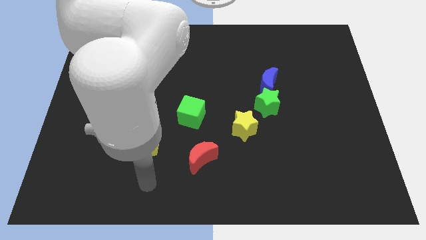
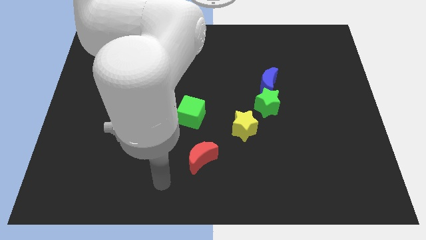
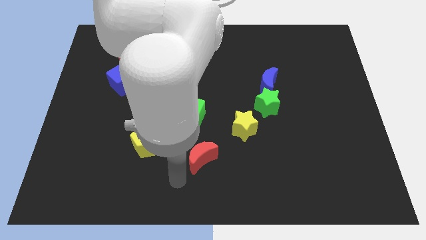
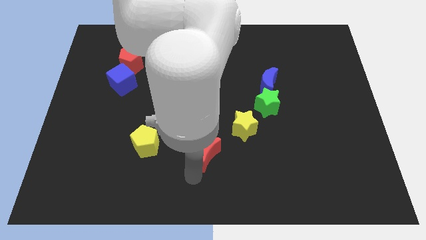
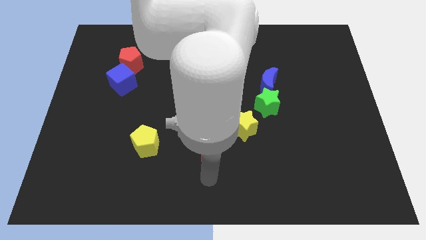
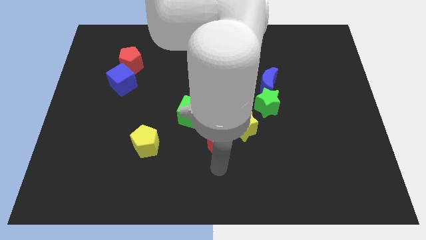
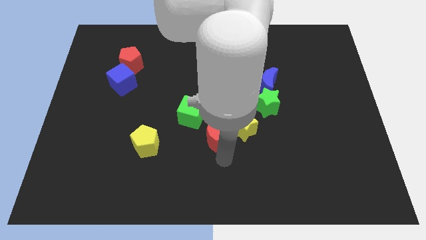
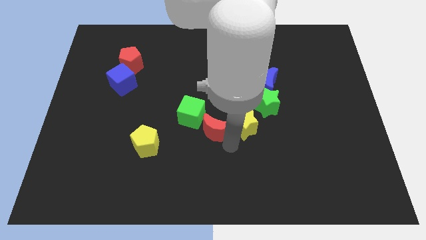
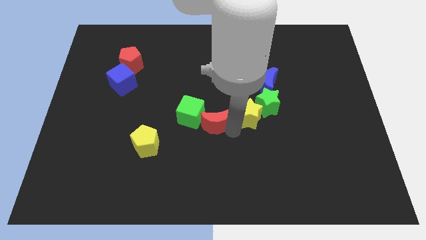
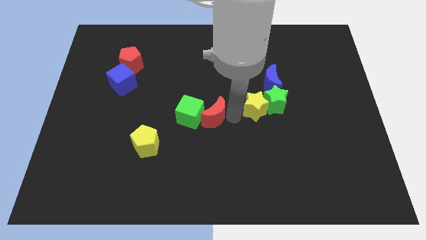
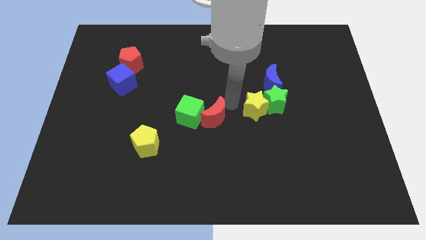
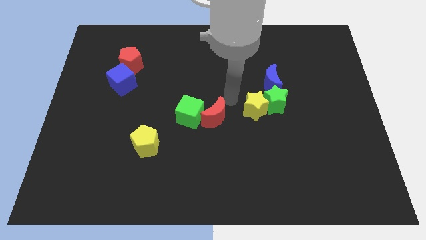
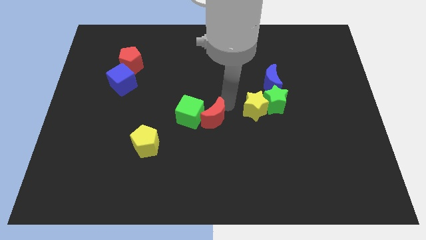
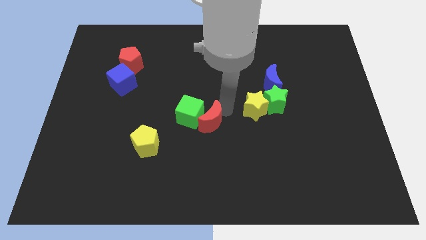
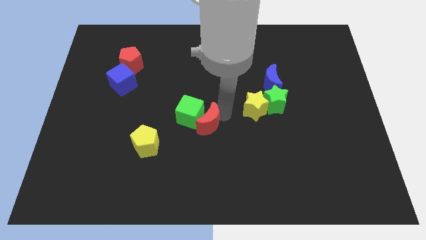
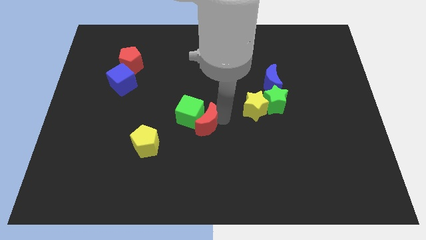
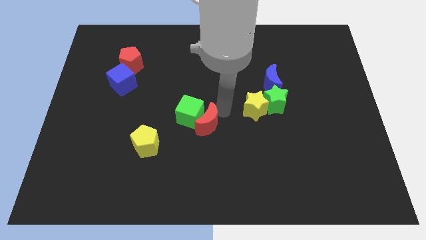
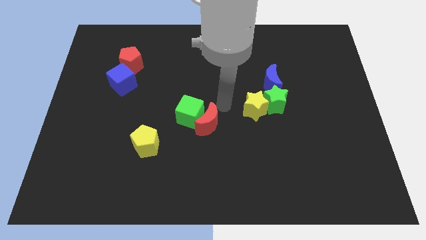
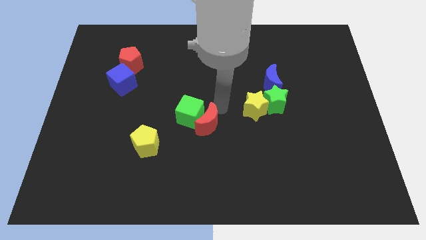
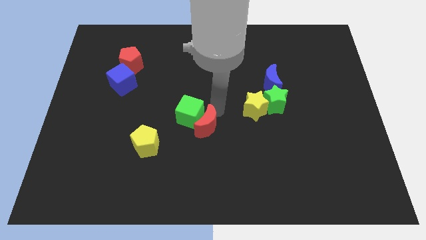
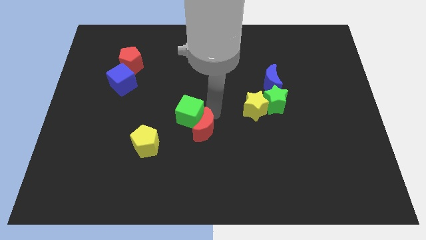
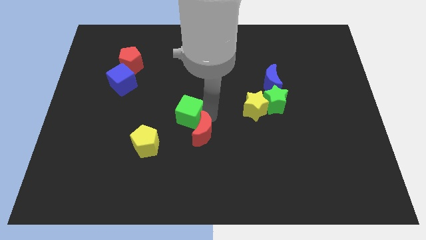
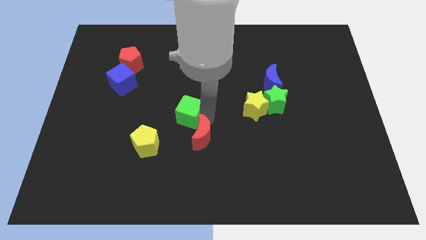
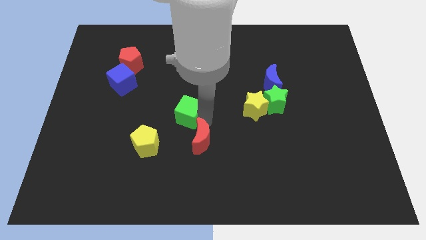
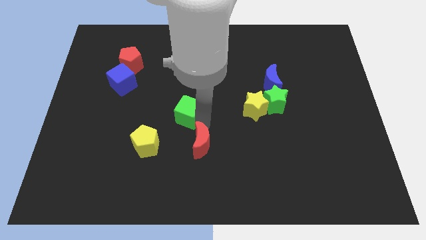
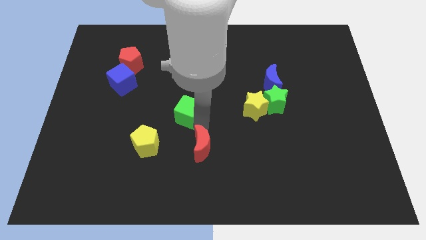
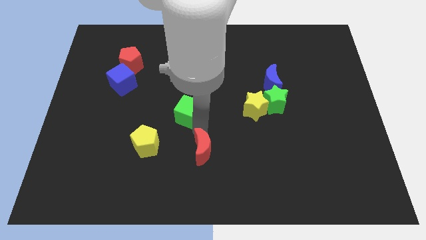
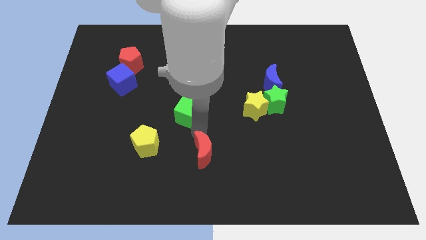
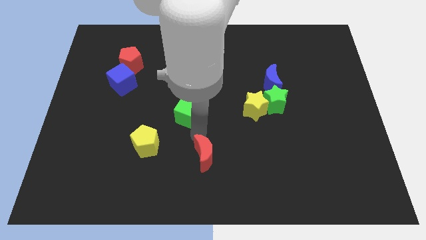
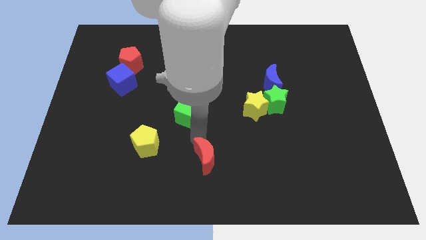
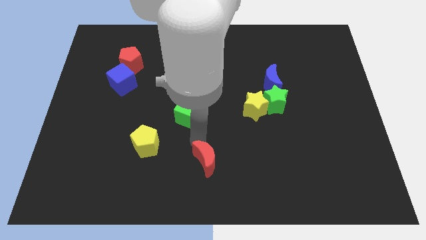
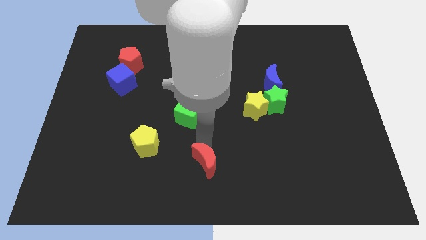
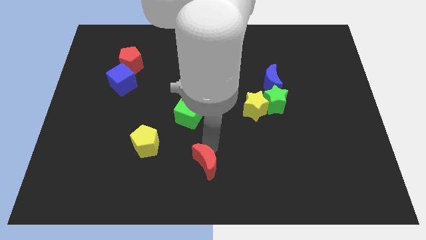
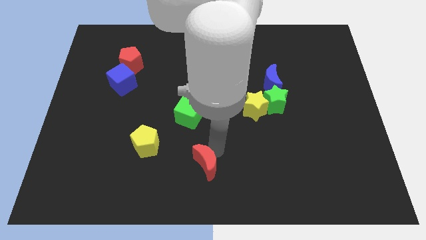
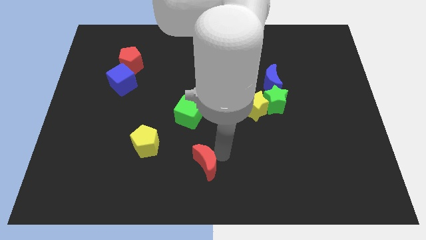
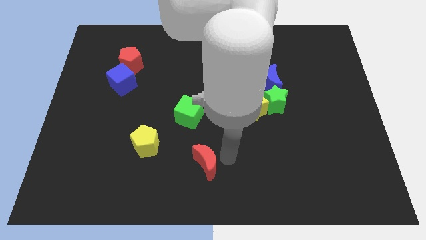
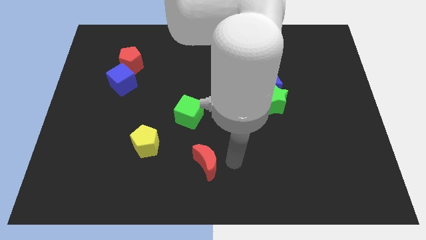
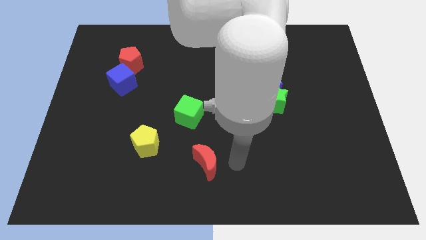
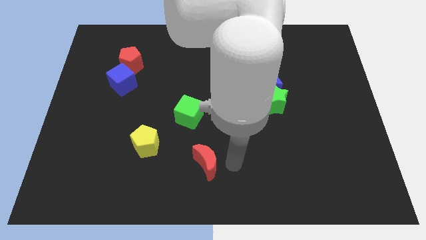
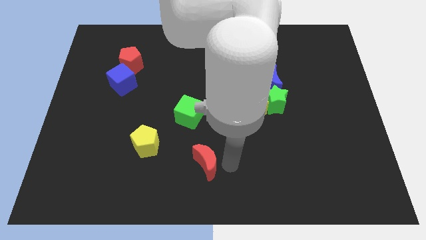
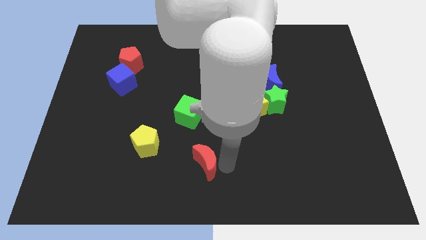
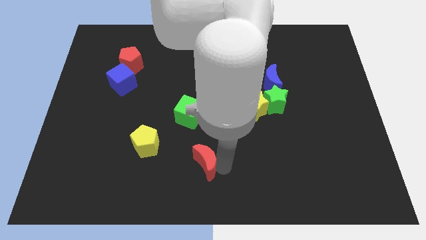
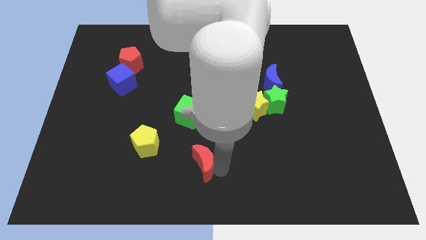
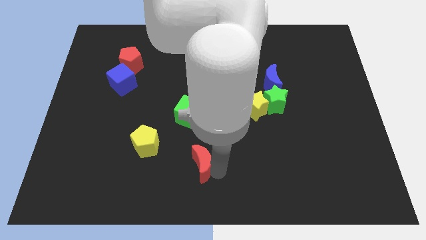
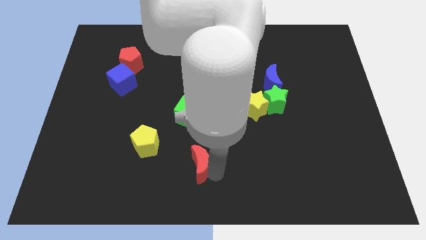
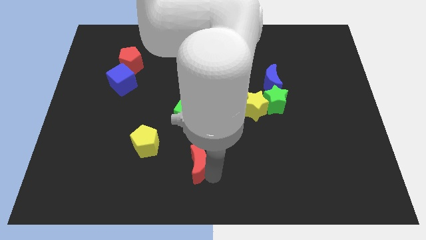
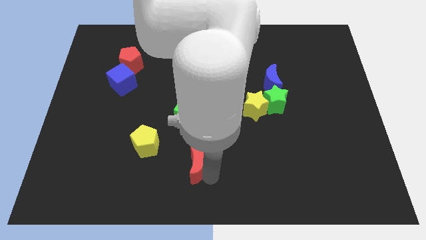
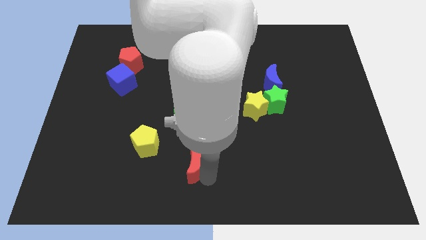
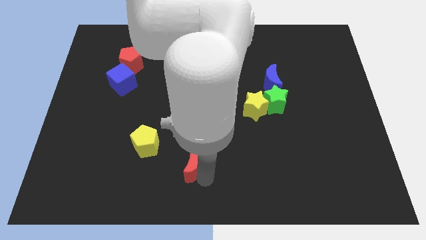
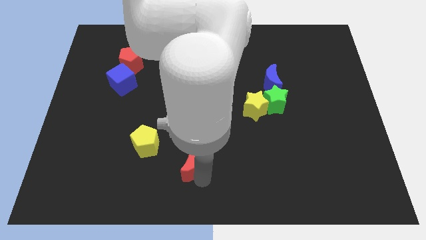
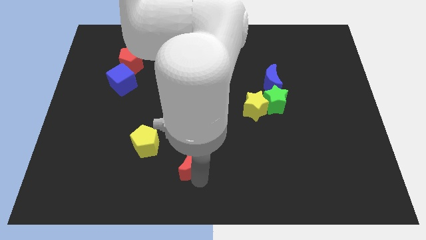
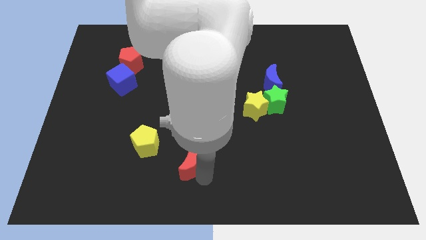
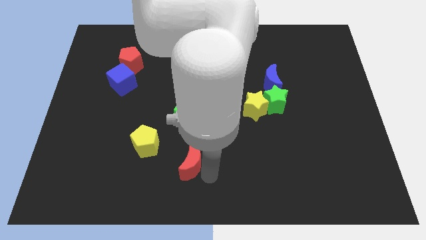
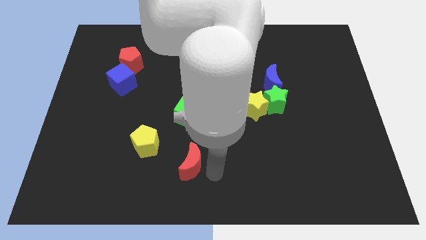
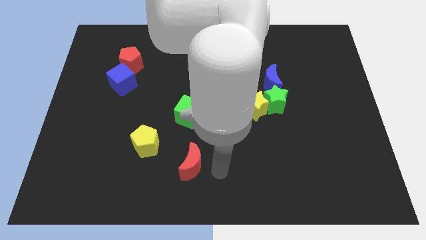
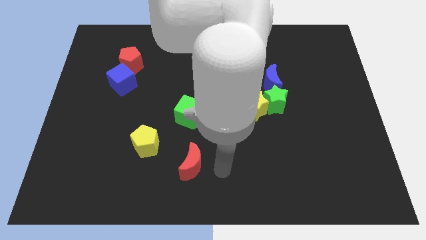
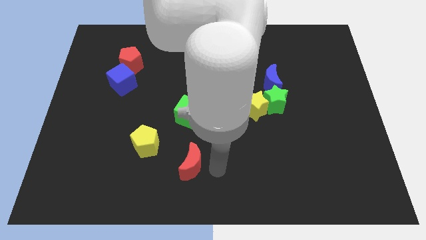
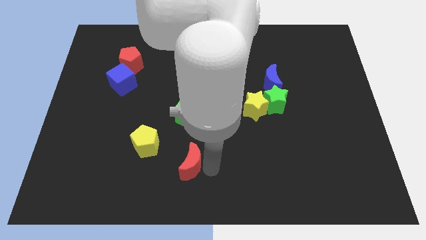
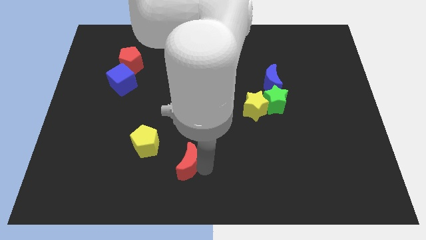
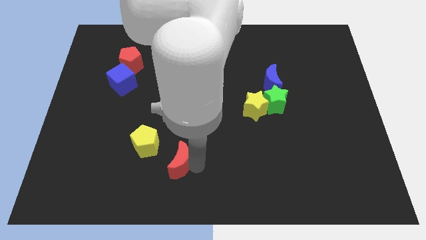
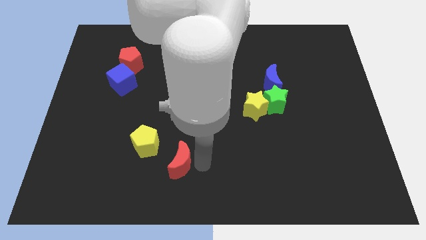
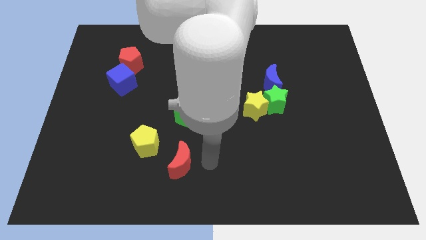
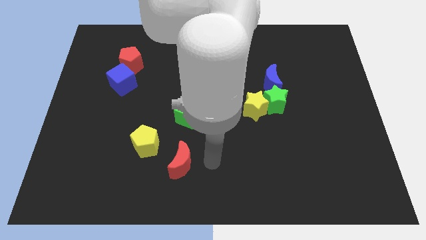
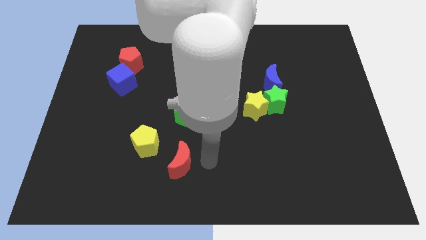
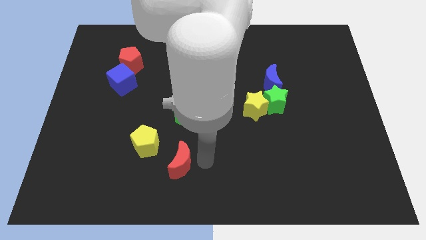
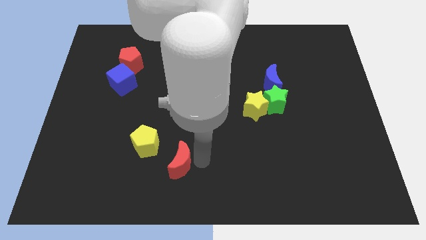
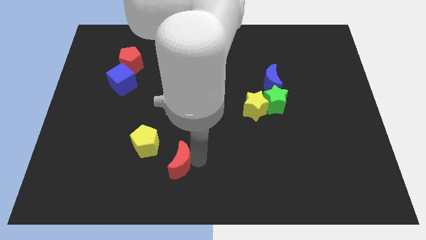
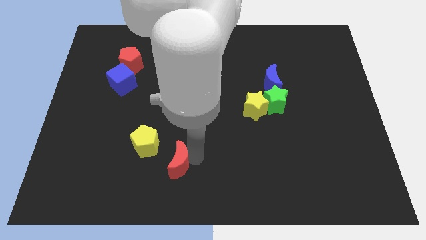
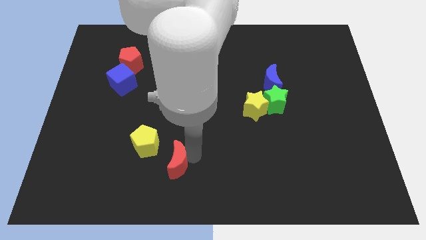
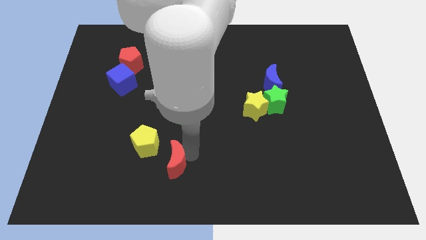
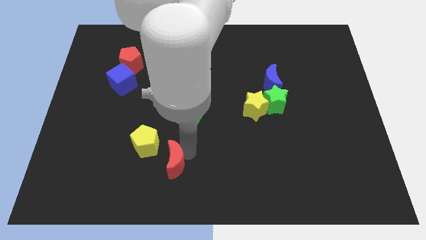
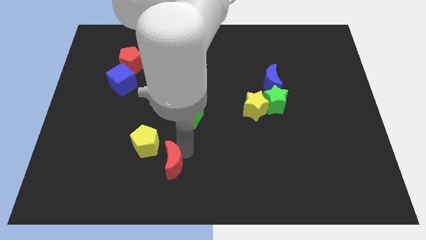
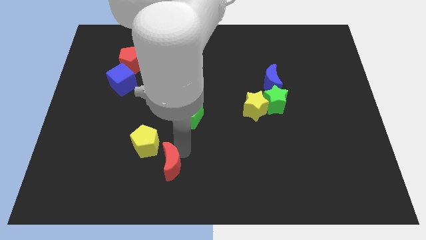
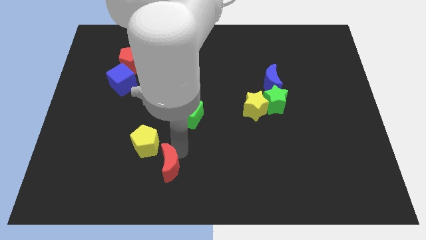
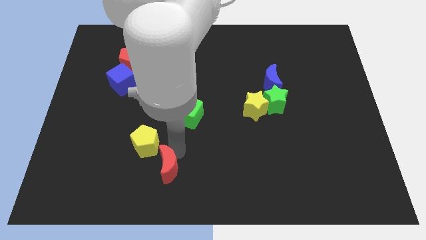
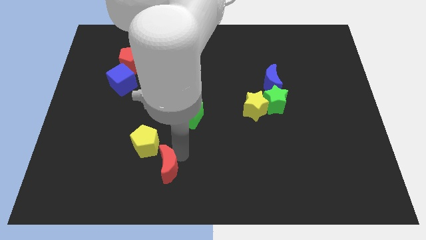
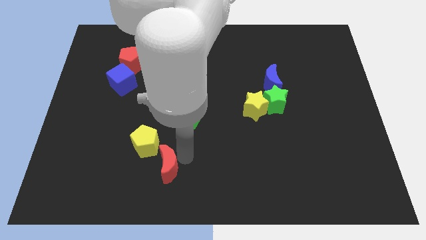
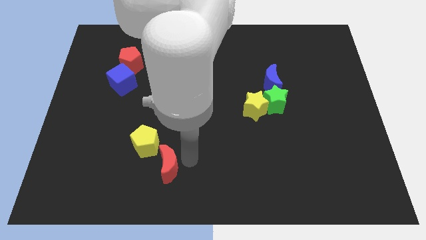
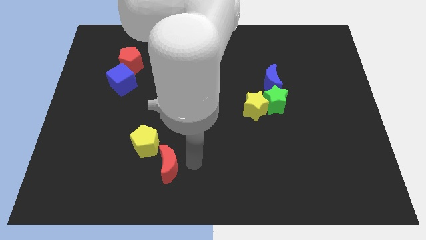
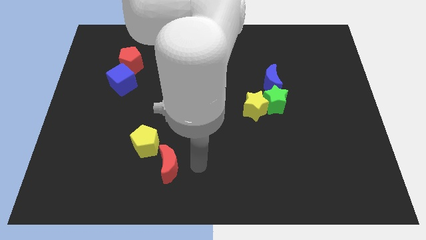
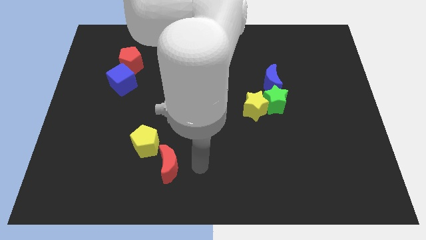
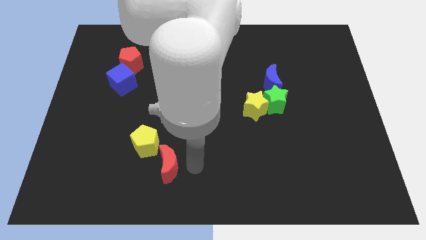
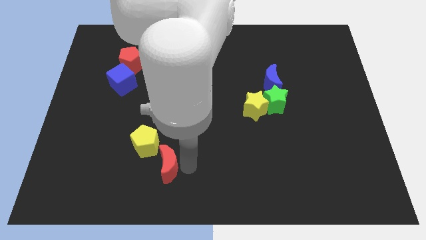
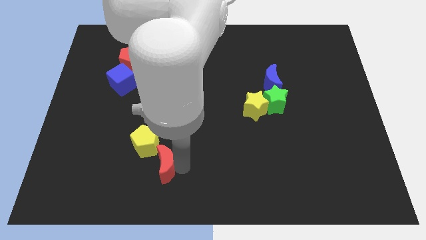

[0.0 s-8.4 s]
slightly slide the red moon left
